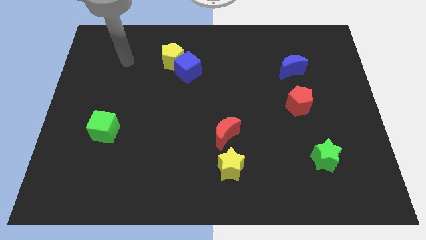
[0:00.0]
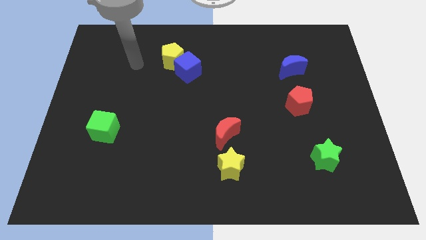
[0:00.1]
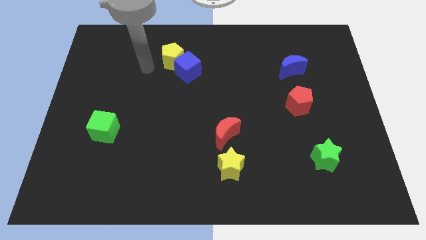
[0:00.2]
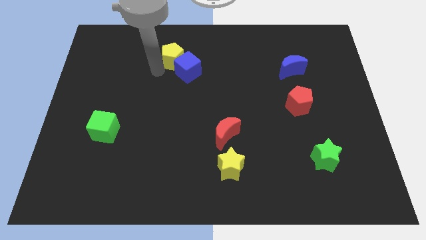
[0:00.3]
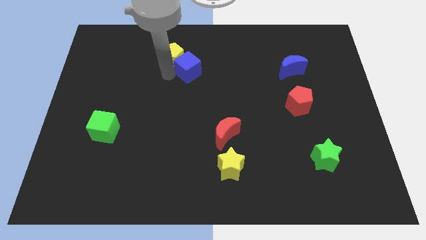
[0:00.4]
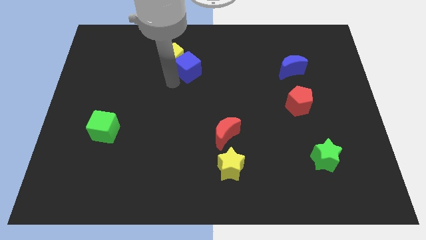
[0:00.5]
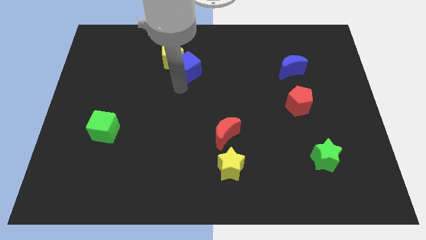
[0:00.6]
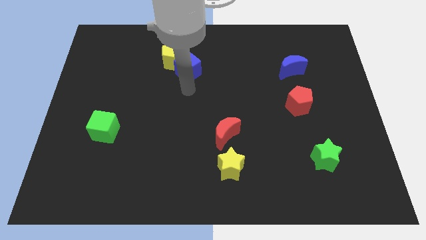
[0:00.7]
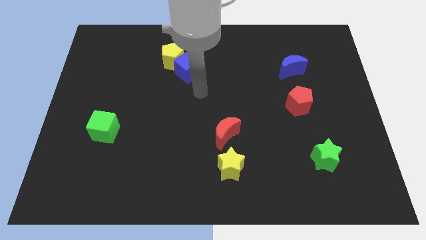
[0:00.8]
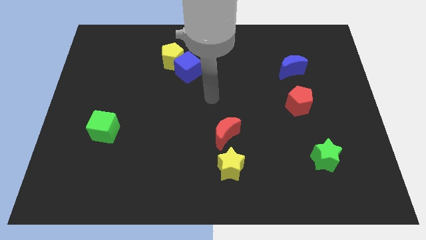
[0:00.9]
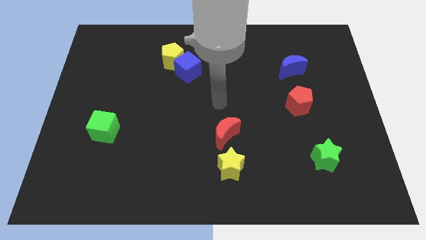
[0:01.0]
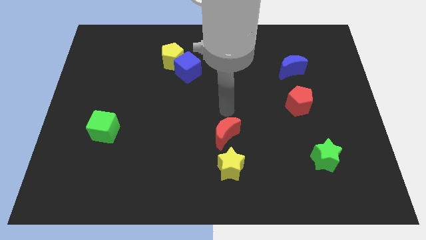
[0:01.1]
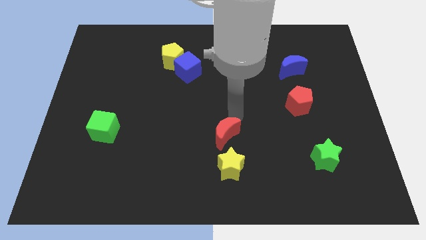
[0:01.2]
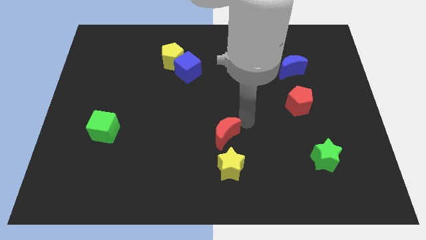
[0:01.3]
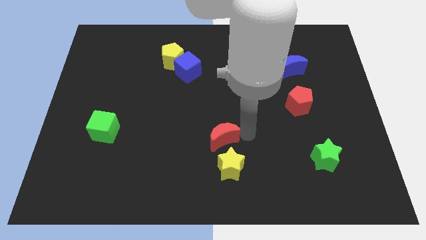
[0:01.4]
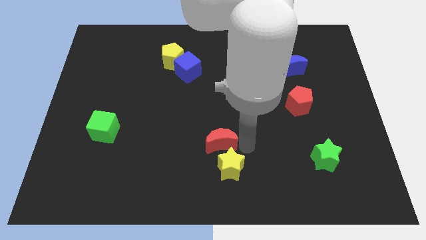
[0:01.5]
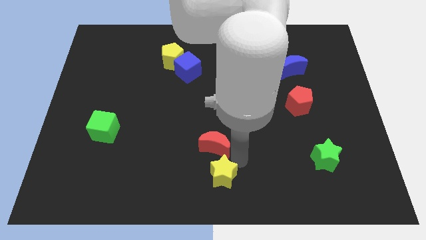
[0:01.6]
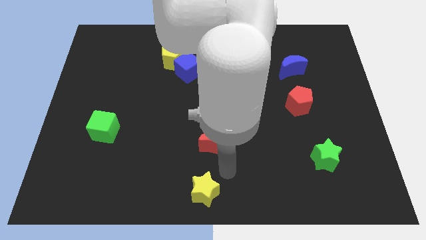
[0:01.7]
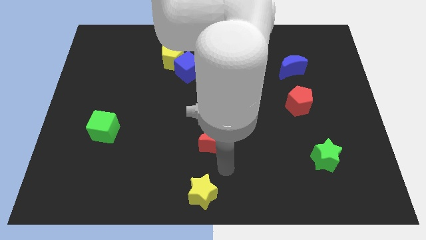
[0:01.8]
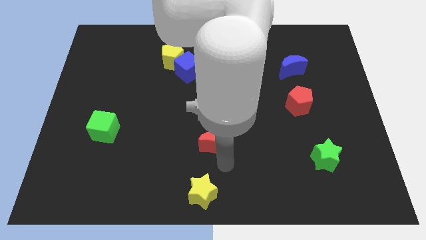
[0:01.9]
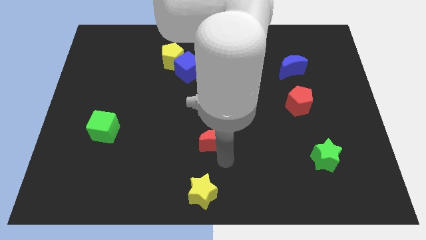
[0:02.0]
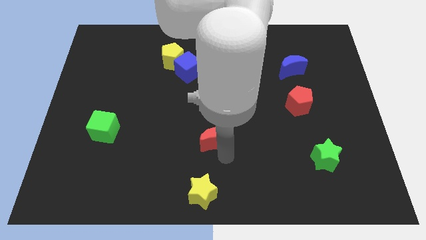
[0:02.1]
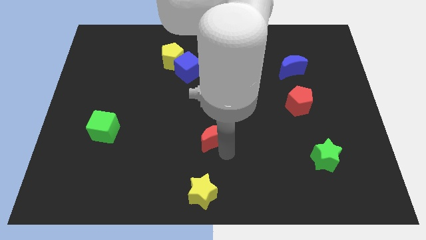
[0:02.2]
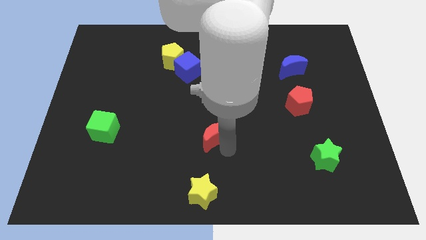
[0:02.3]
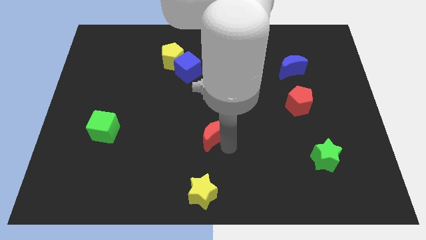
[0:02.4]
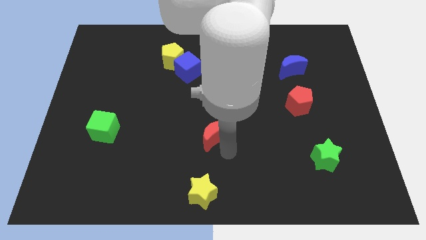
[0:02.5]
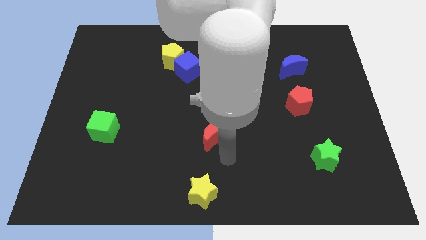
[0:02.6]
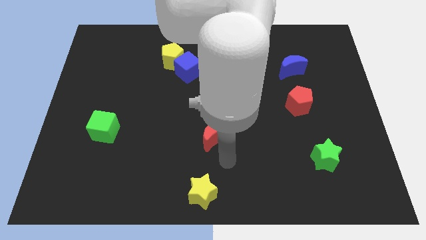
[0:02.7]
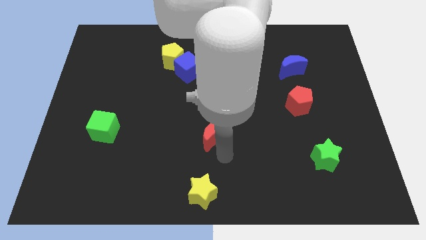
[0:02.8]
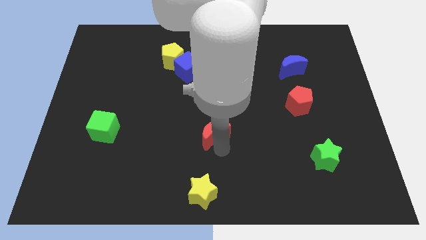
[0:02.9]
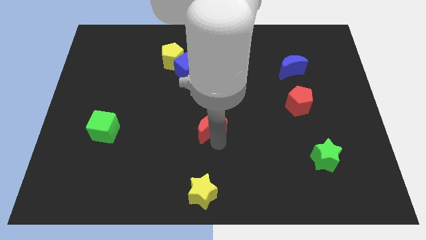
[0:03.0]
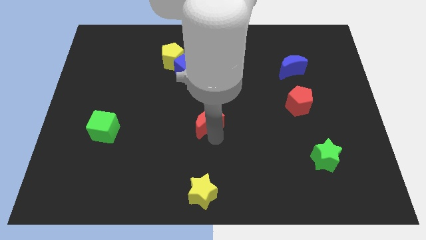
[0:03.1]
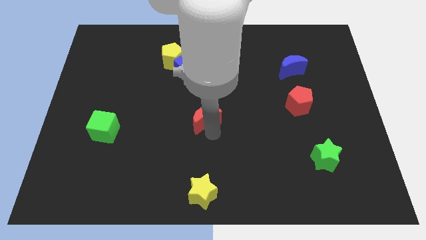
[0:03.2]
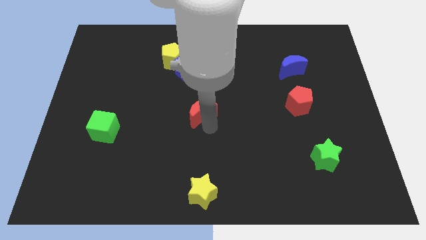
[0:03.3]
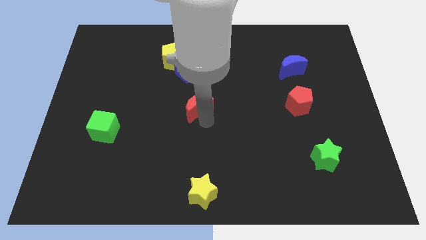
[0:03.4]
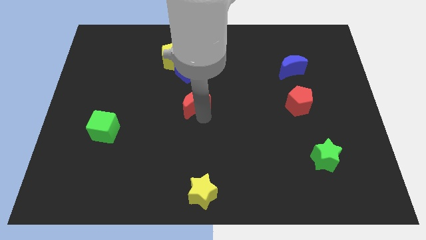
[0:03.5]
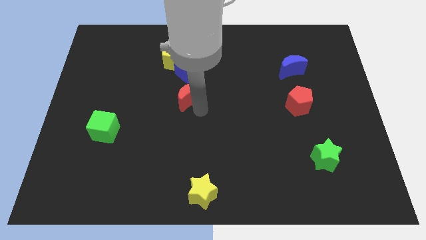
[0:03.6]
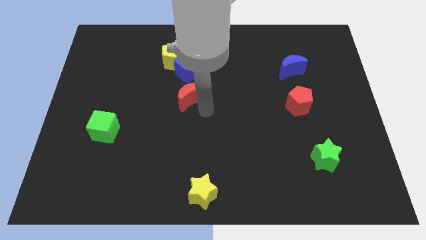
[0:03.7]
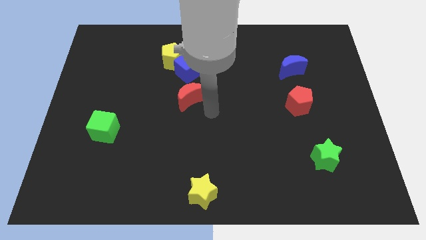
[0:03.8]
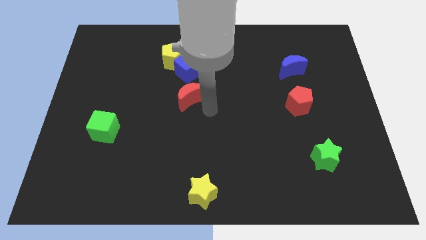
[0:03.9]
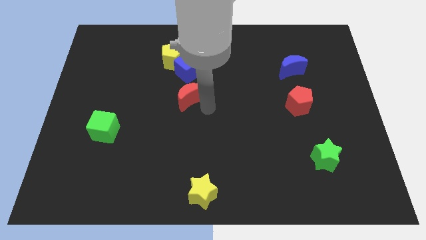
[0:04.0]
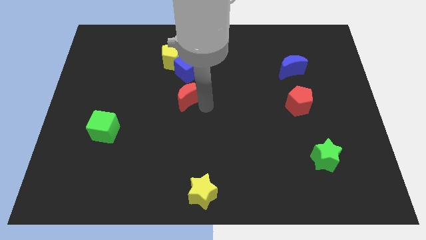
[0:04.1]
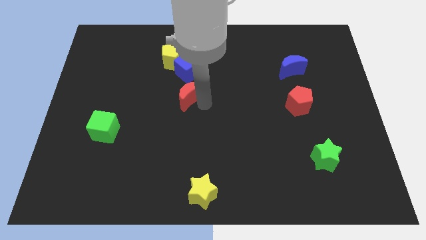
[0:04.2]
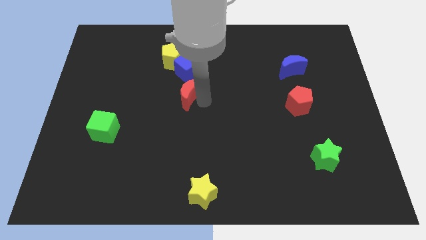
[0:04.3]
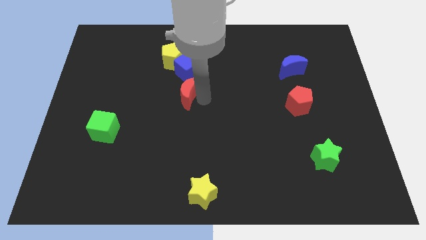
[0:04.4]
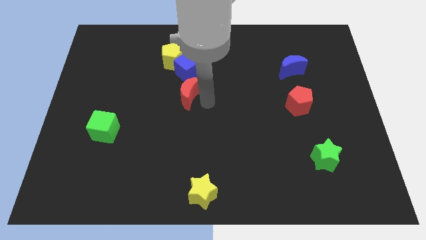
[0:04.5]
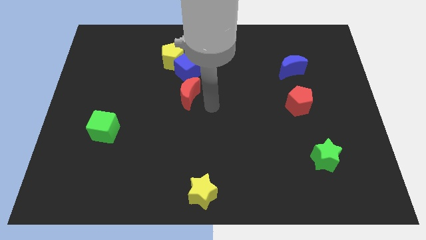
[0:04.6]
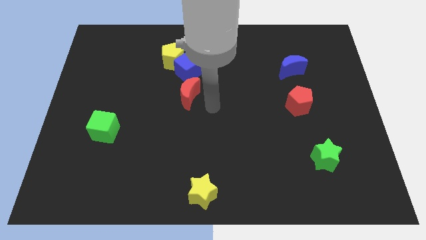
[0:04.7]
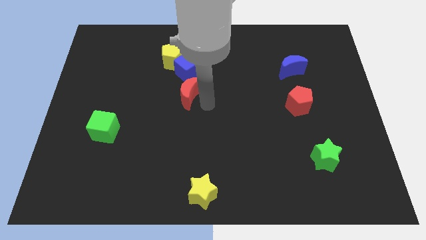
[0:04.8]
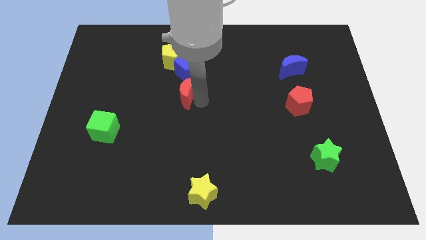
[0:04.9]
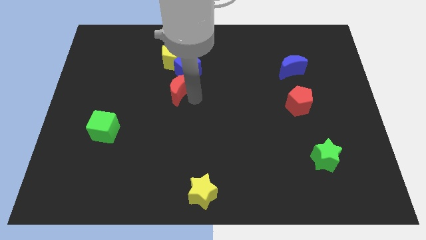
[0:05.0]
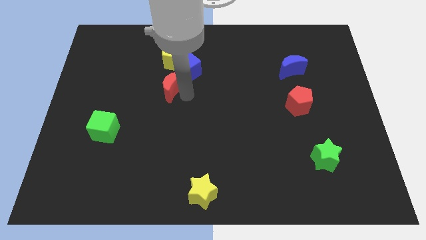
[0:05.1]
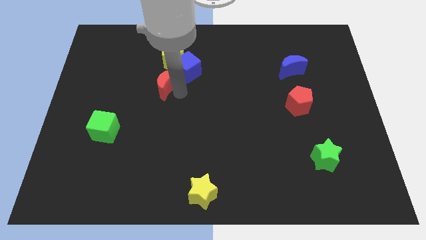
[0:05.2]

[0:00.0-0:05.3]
slide the red moon diagonally up and to the left

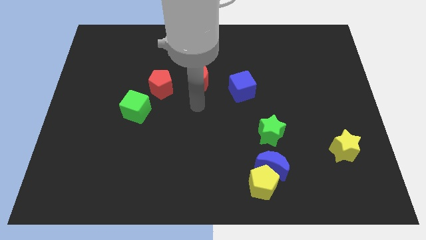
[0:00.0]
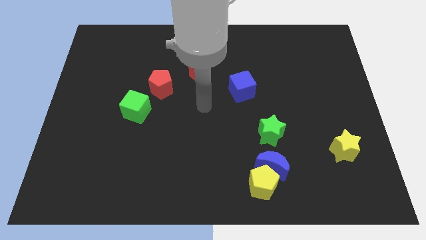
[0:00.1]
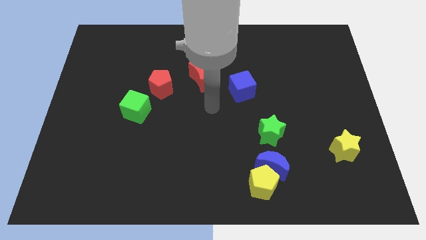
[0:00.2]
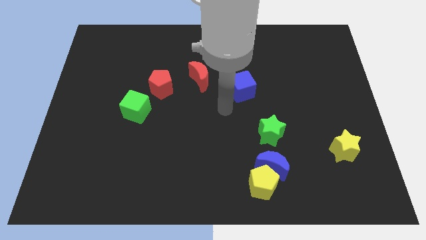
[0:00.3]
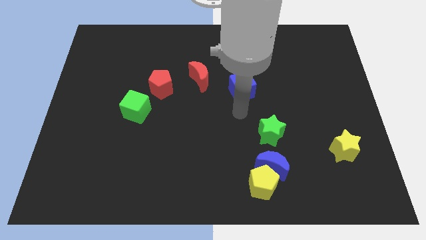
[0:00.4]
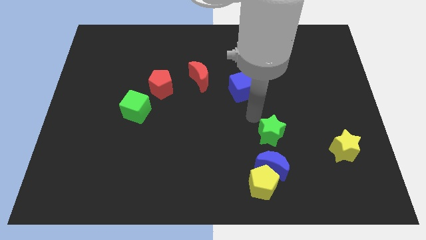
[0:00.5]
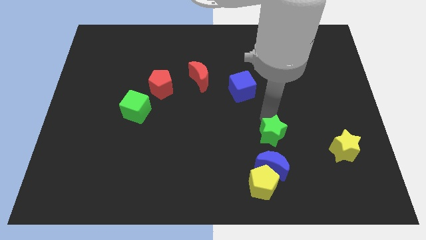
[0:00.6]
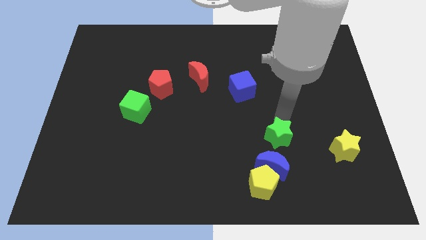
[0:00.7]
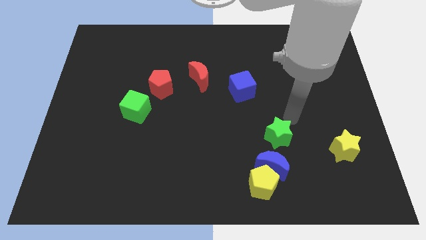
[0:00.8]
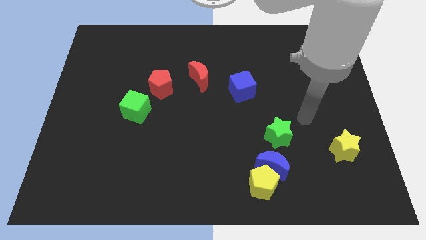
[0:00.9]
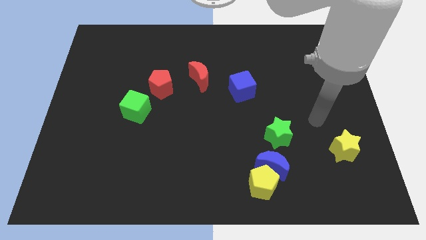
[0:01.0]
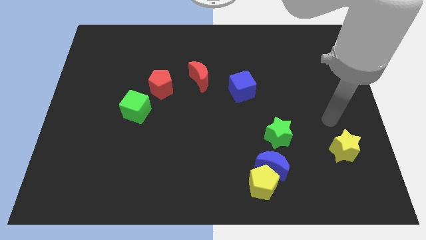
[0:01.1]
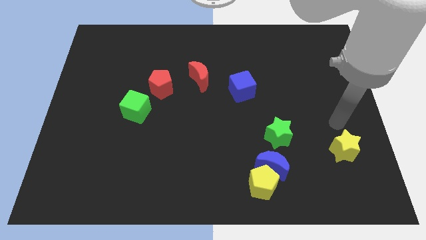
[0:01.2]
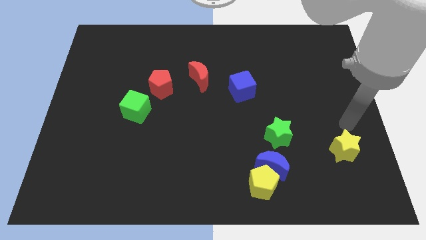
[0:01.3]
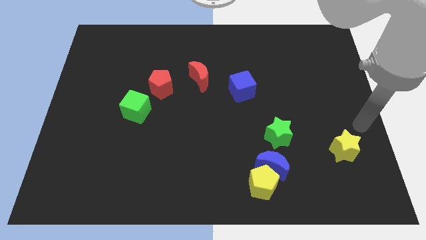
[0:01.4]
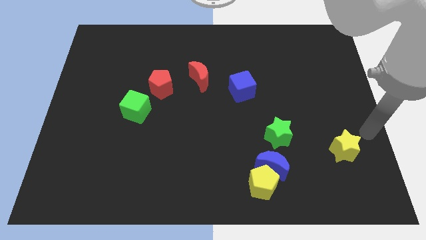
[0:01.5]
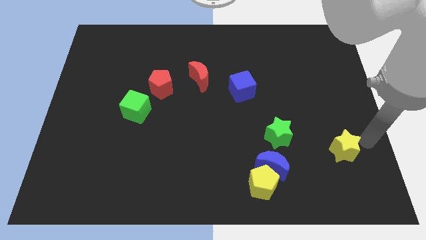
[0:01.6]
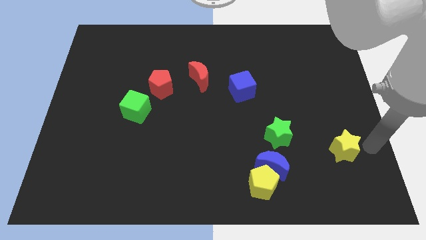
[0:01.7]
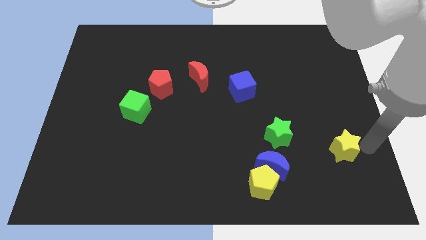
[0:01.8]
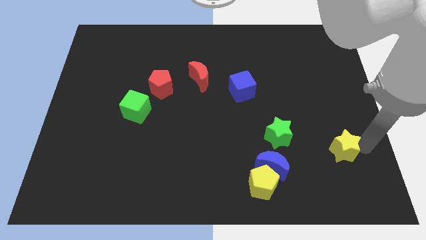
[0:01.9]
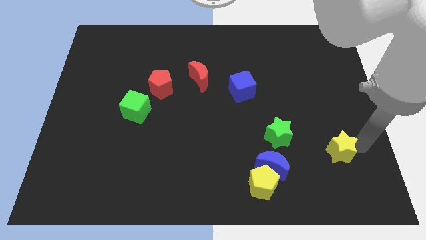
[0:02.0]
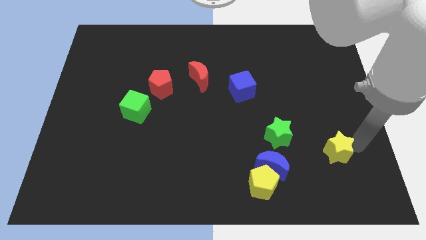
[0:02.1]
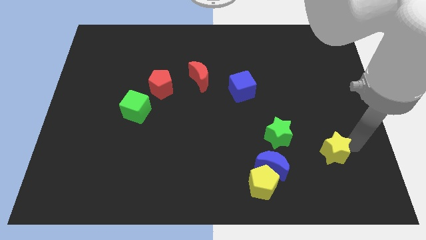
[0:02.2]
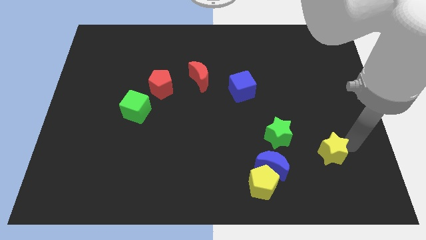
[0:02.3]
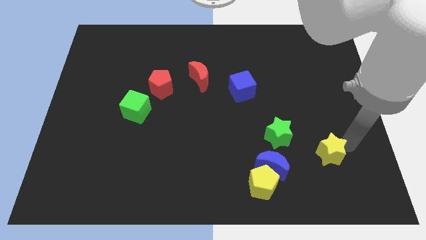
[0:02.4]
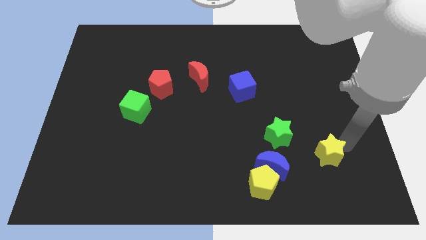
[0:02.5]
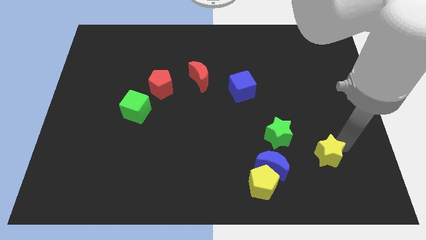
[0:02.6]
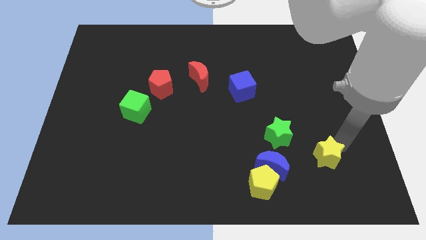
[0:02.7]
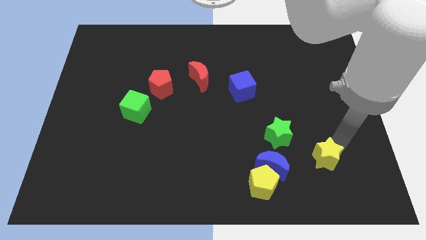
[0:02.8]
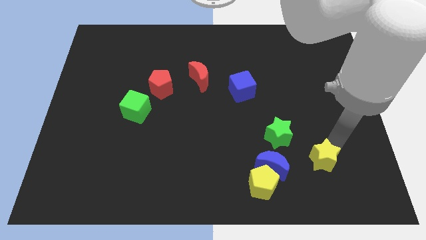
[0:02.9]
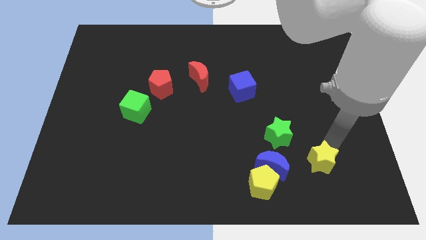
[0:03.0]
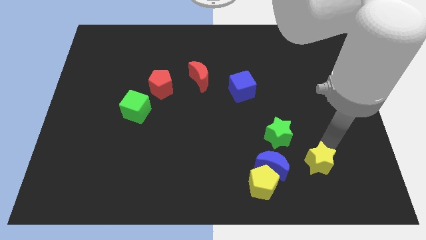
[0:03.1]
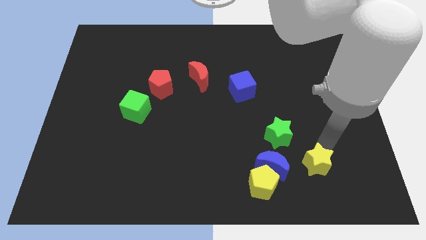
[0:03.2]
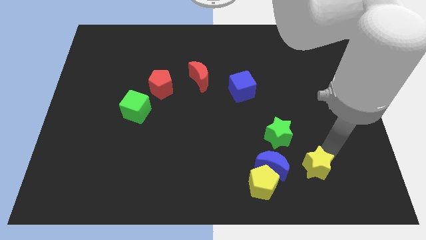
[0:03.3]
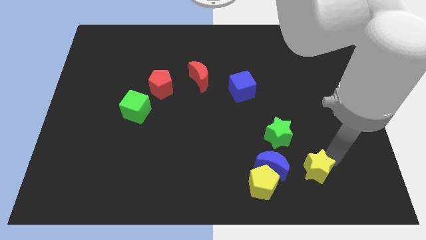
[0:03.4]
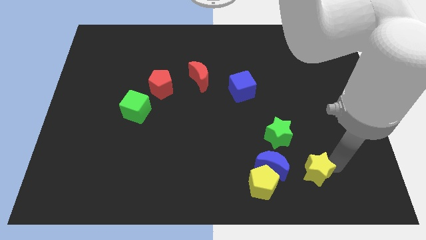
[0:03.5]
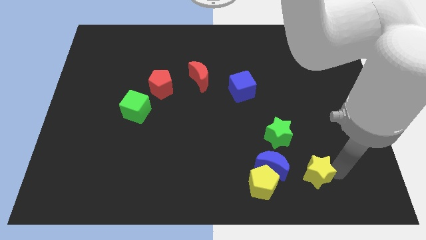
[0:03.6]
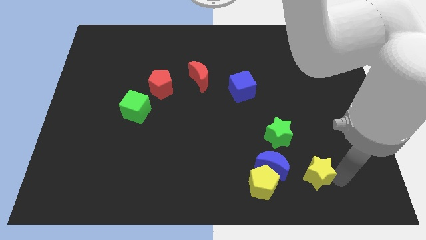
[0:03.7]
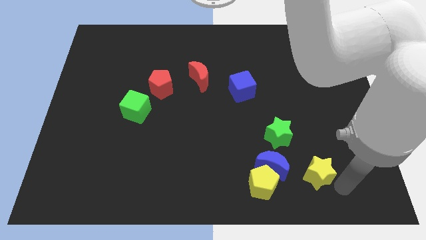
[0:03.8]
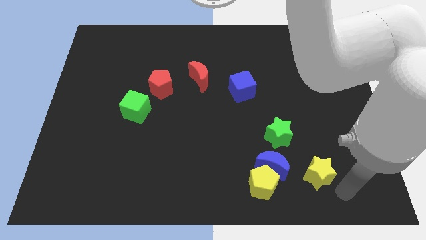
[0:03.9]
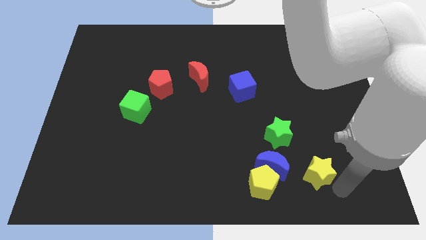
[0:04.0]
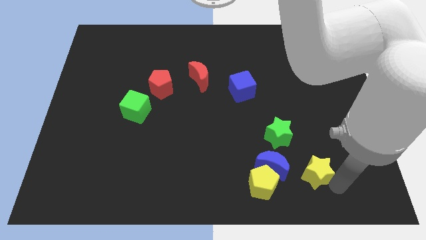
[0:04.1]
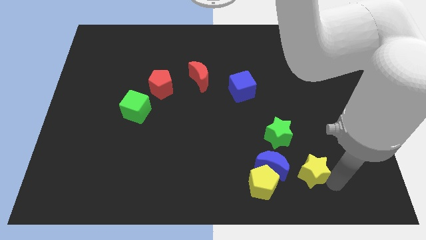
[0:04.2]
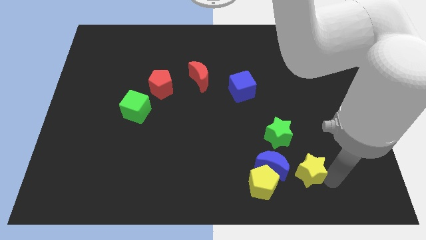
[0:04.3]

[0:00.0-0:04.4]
slightly push the yellow star left
